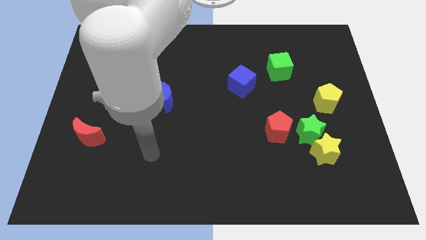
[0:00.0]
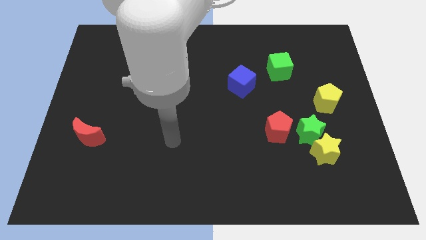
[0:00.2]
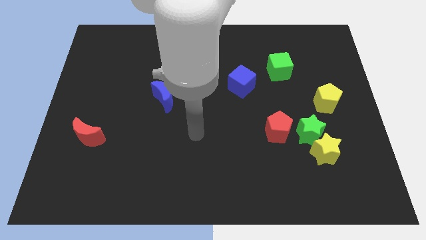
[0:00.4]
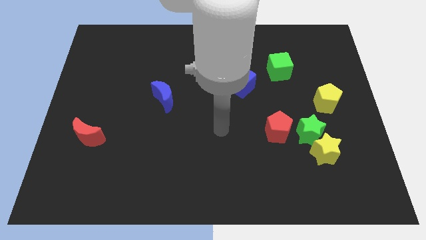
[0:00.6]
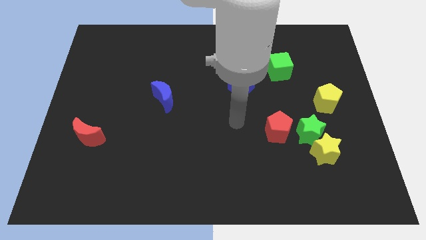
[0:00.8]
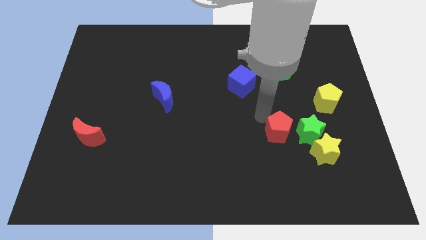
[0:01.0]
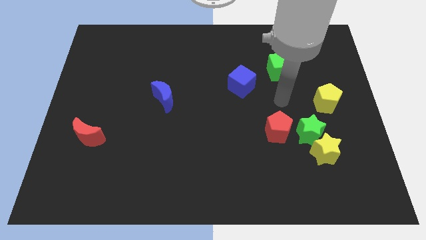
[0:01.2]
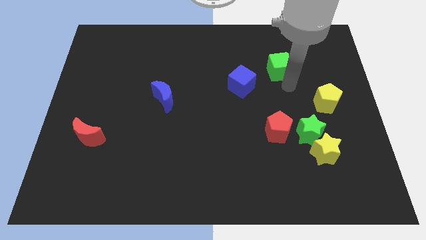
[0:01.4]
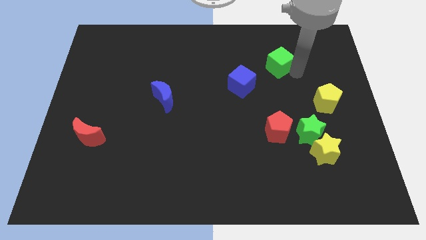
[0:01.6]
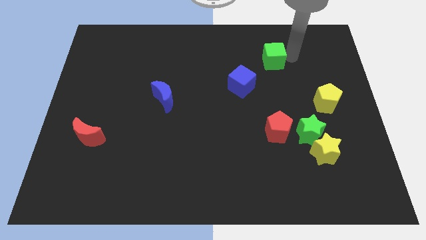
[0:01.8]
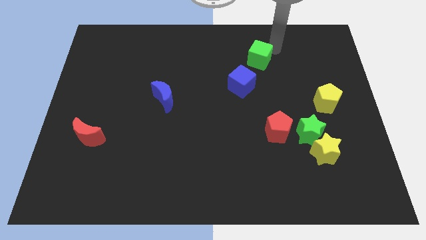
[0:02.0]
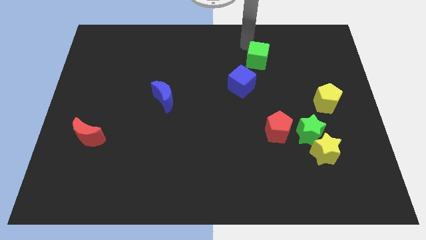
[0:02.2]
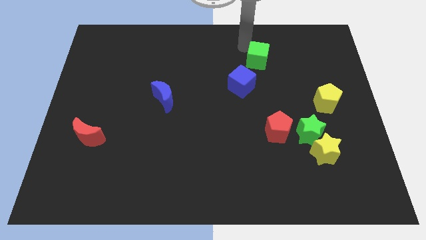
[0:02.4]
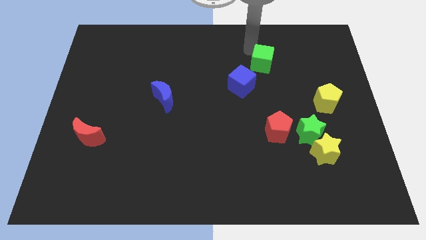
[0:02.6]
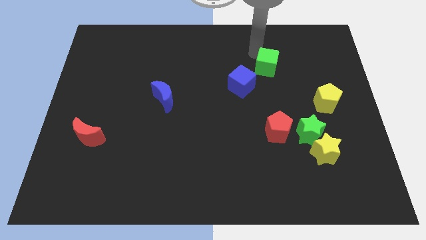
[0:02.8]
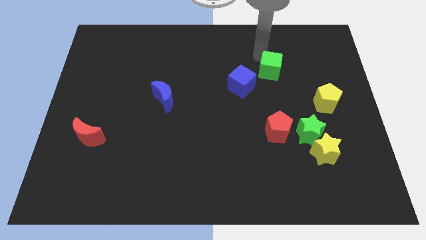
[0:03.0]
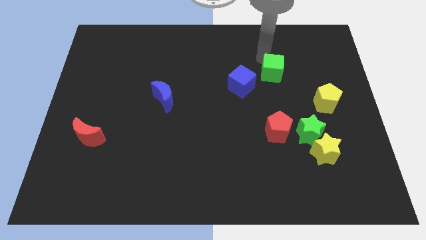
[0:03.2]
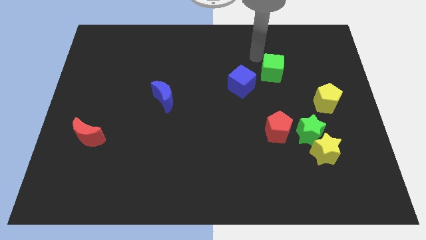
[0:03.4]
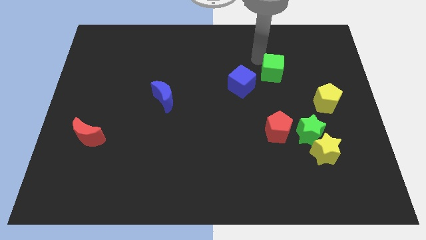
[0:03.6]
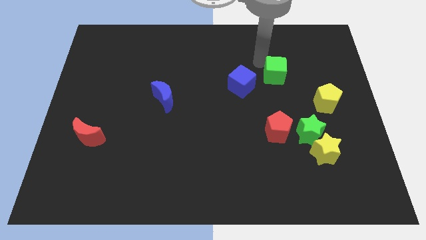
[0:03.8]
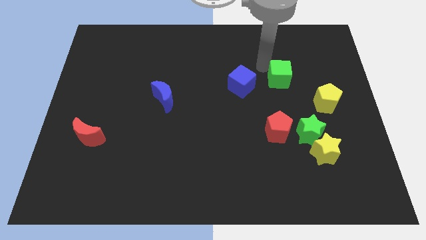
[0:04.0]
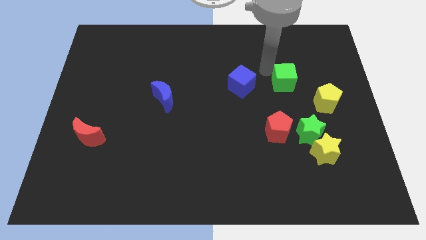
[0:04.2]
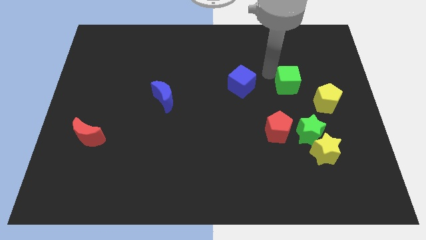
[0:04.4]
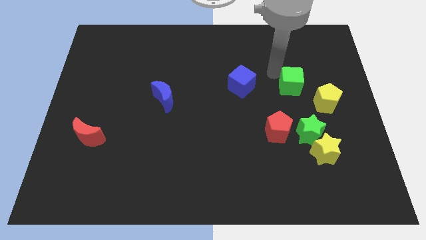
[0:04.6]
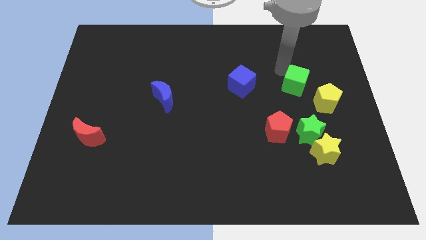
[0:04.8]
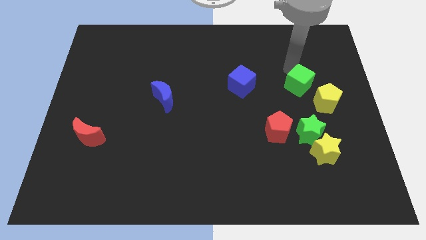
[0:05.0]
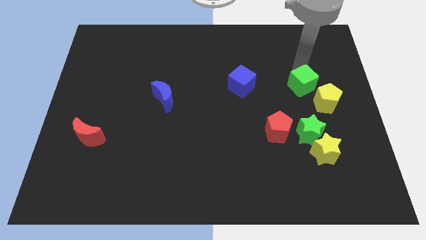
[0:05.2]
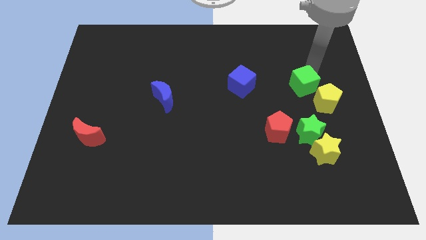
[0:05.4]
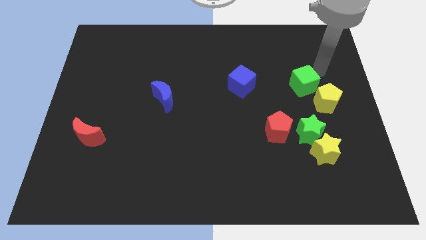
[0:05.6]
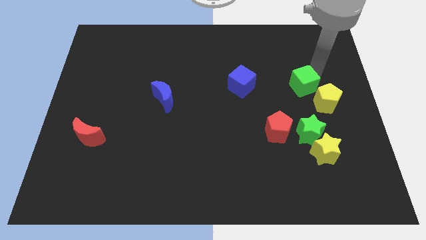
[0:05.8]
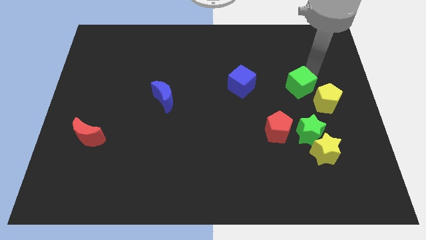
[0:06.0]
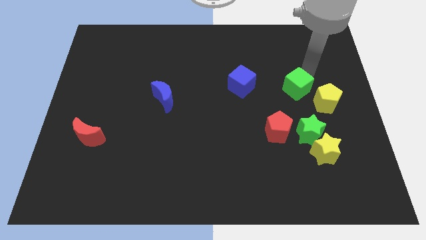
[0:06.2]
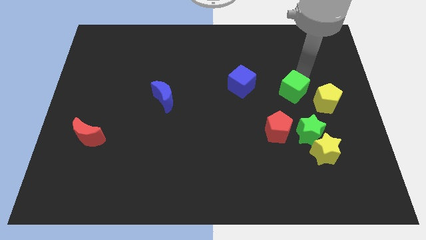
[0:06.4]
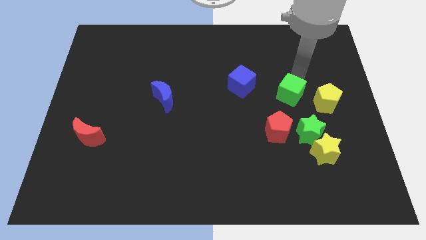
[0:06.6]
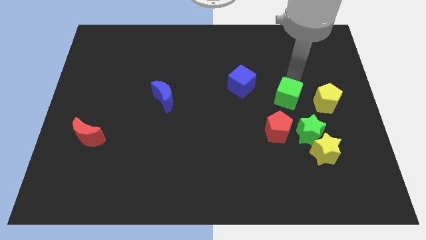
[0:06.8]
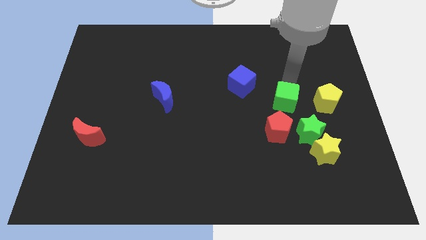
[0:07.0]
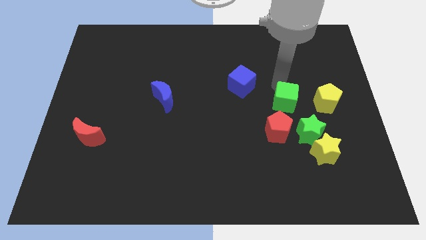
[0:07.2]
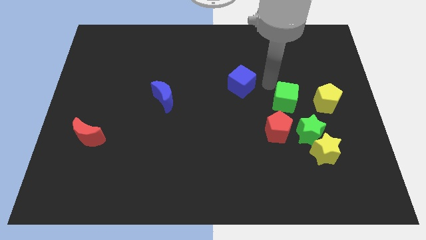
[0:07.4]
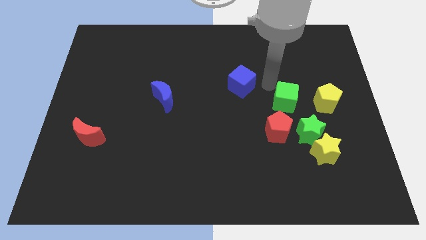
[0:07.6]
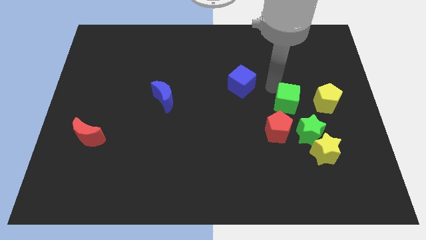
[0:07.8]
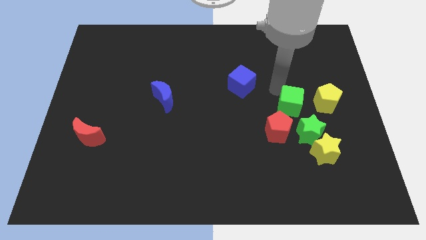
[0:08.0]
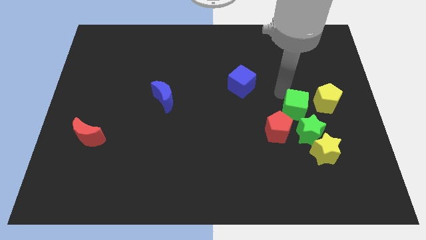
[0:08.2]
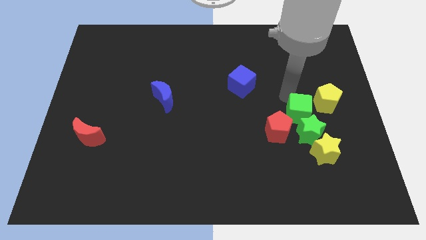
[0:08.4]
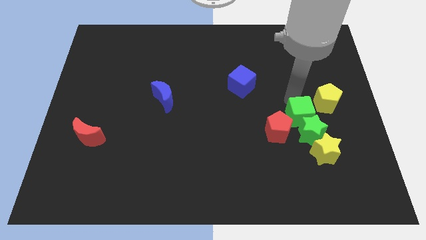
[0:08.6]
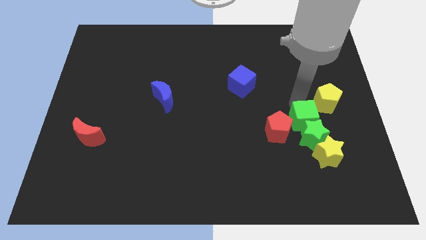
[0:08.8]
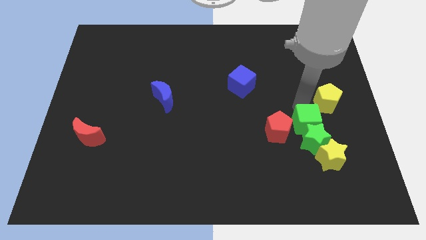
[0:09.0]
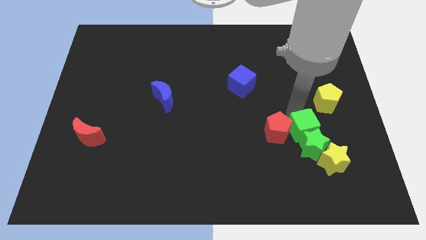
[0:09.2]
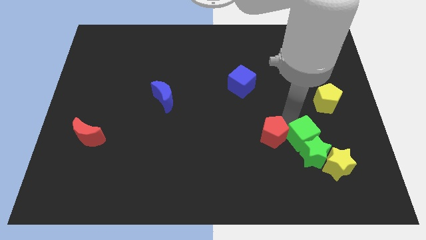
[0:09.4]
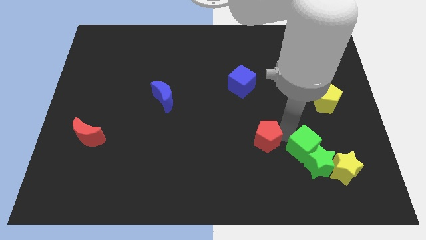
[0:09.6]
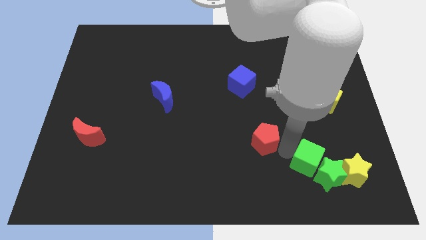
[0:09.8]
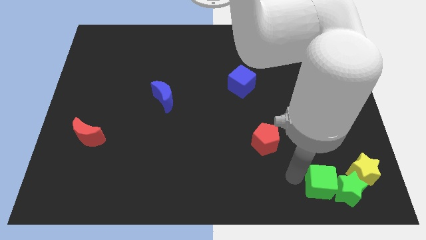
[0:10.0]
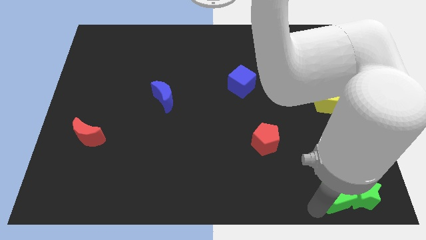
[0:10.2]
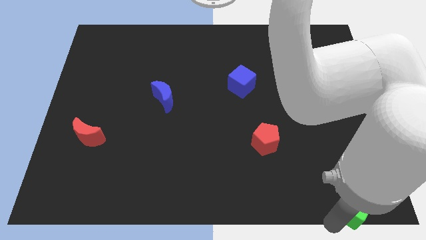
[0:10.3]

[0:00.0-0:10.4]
slide the green cube to the lower right corner

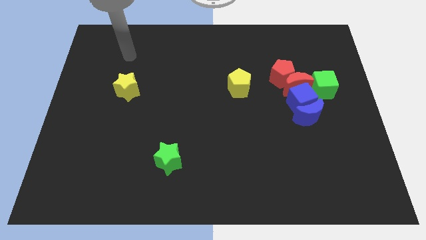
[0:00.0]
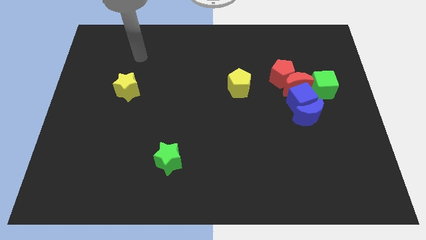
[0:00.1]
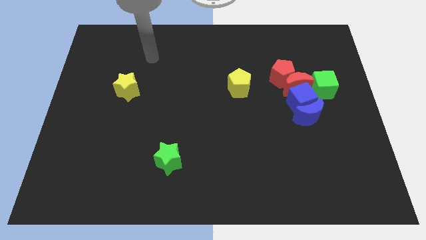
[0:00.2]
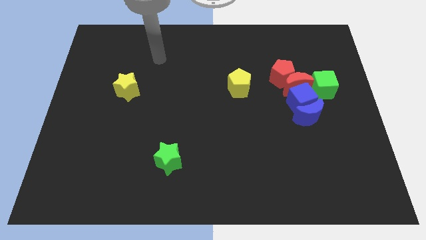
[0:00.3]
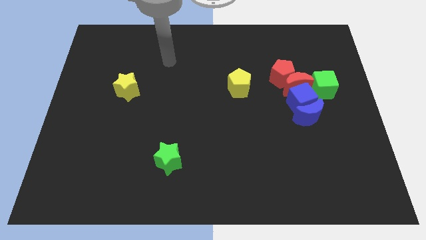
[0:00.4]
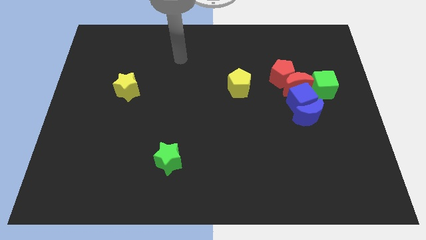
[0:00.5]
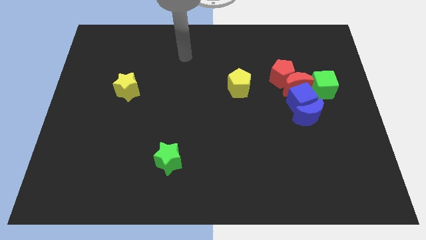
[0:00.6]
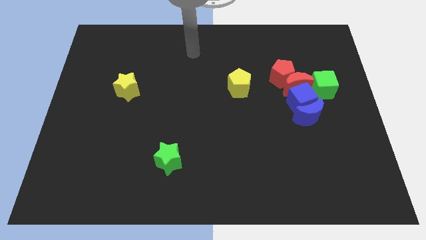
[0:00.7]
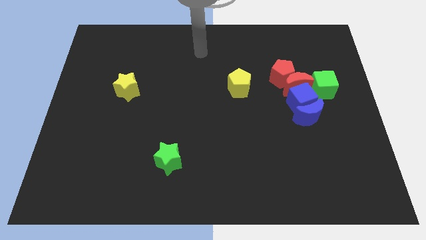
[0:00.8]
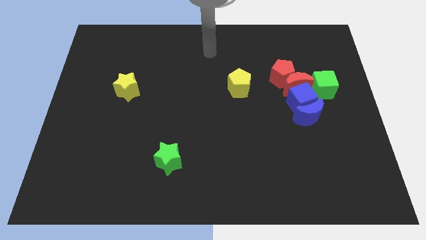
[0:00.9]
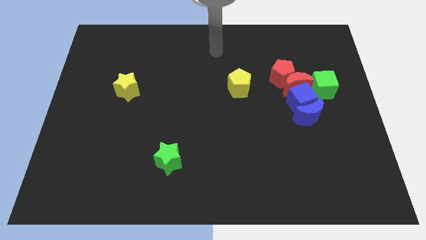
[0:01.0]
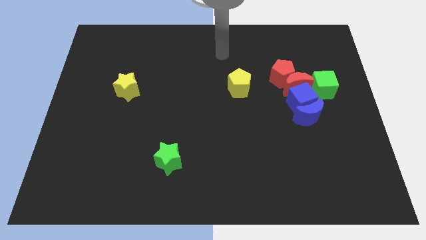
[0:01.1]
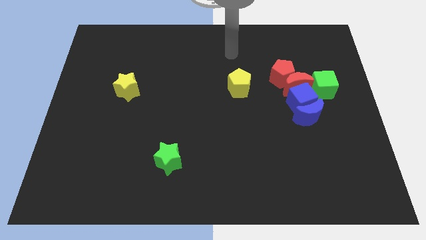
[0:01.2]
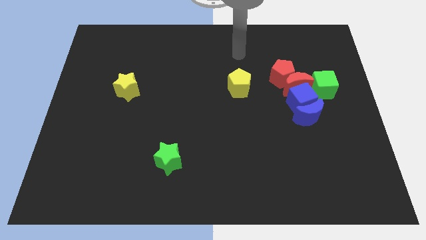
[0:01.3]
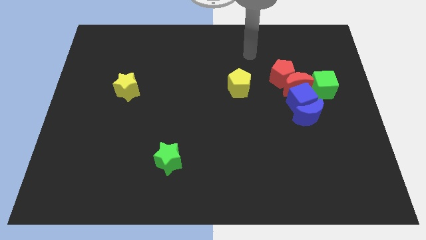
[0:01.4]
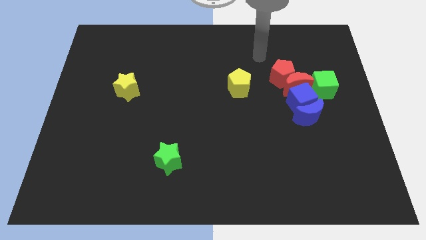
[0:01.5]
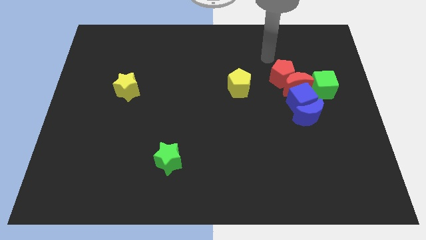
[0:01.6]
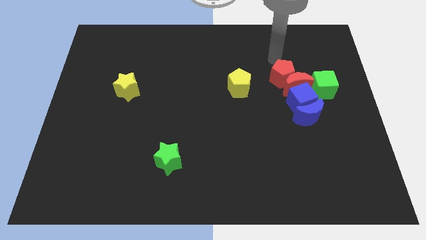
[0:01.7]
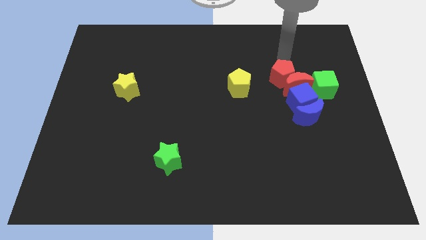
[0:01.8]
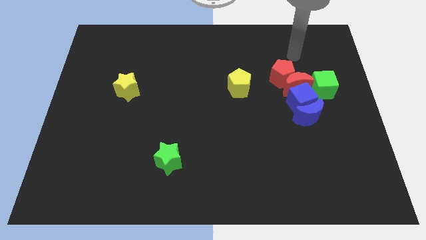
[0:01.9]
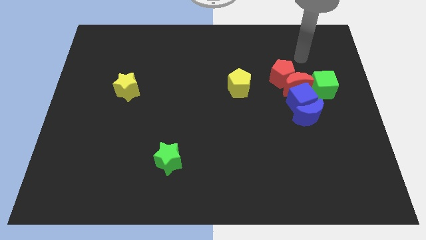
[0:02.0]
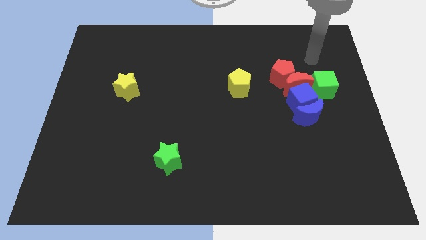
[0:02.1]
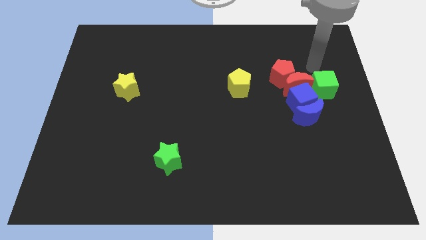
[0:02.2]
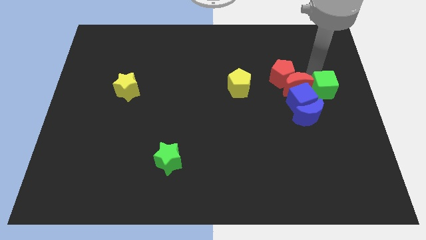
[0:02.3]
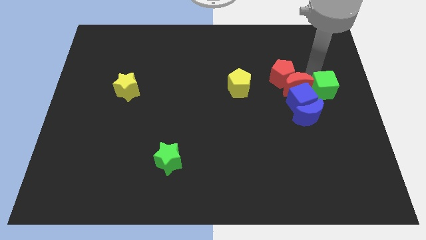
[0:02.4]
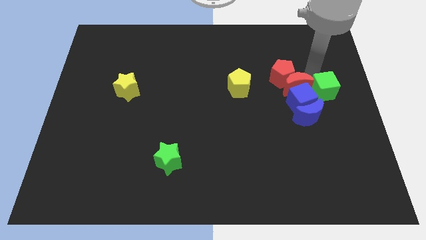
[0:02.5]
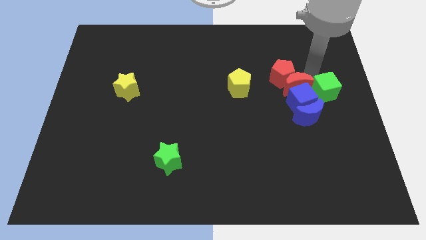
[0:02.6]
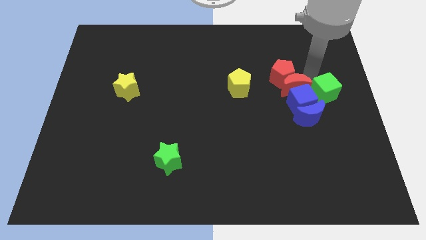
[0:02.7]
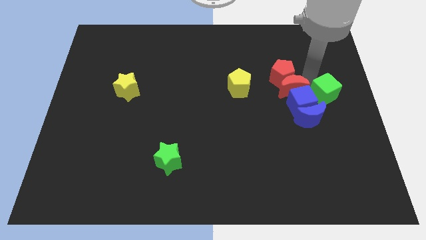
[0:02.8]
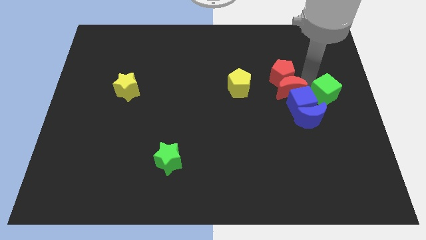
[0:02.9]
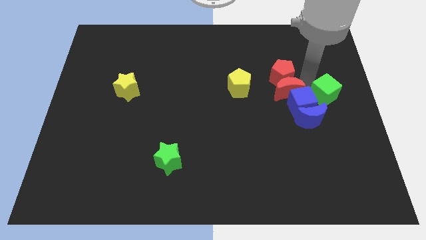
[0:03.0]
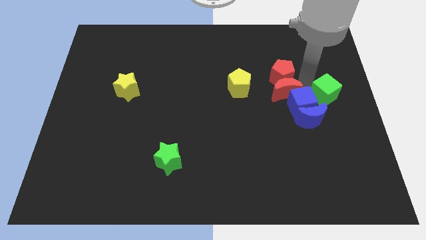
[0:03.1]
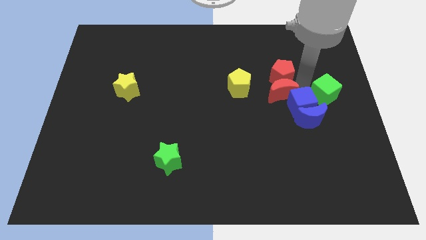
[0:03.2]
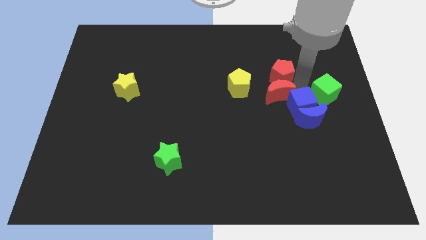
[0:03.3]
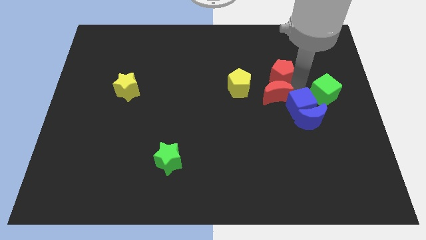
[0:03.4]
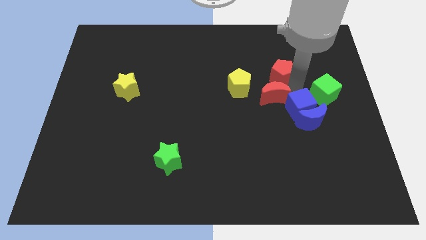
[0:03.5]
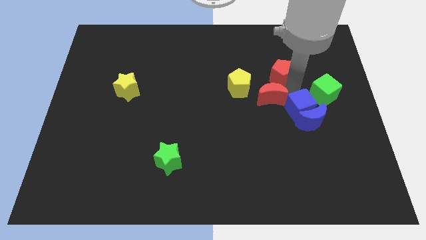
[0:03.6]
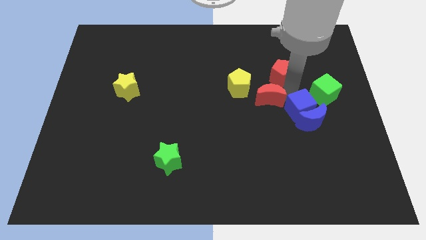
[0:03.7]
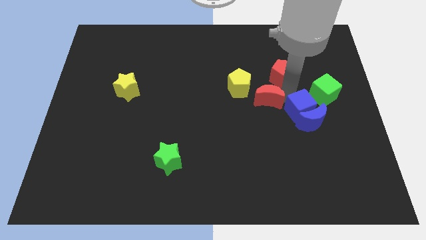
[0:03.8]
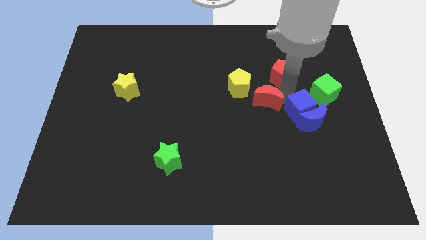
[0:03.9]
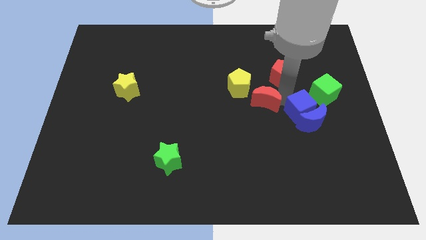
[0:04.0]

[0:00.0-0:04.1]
put the red moon to the center
